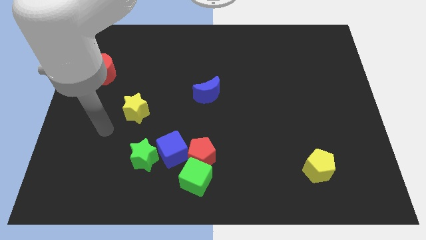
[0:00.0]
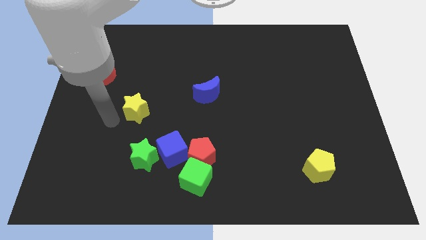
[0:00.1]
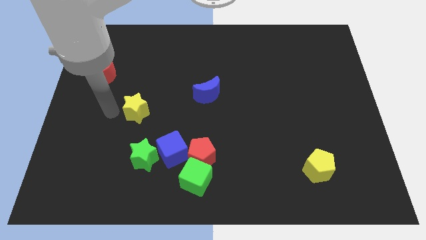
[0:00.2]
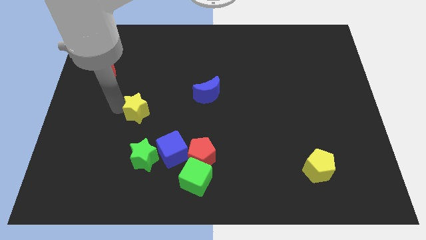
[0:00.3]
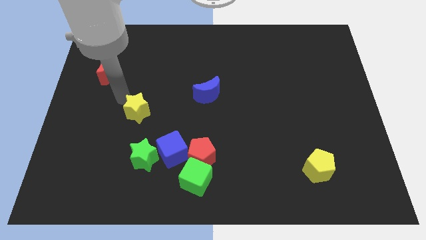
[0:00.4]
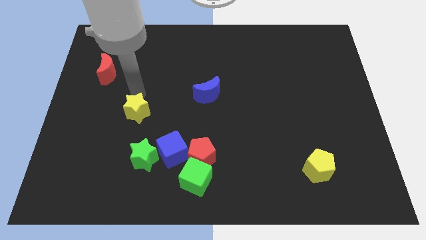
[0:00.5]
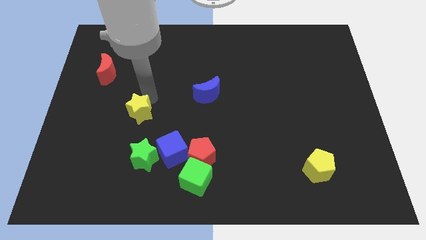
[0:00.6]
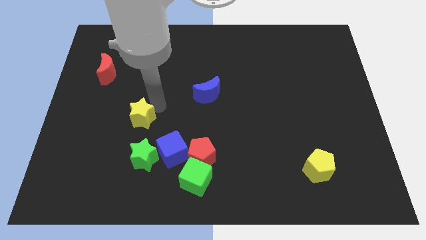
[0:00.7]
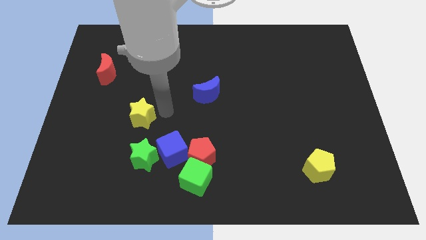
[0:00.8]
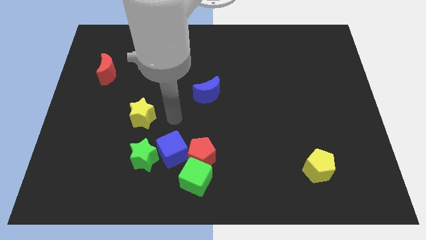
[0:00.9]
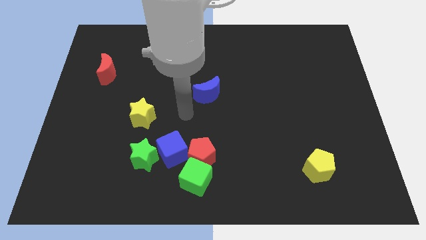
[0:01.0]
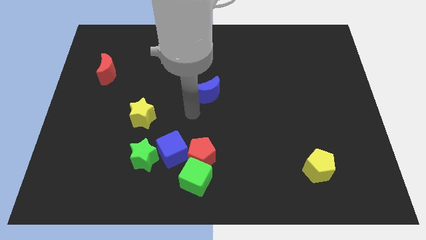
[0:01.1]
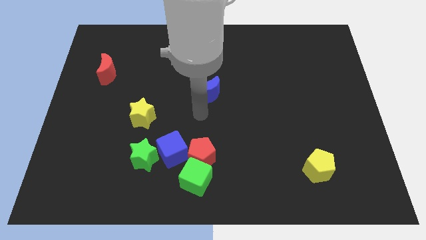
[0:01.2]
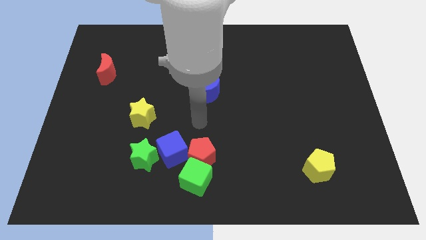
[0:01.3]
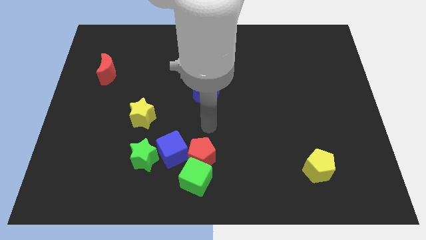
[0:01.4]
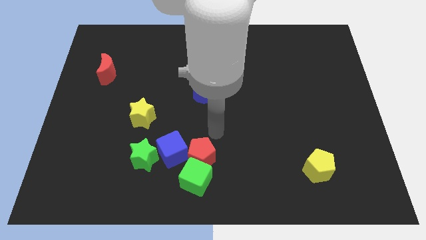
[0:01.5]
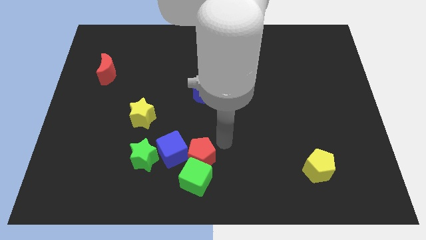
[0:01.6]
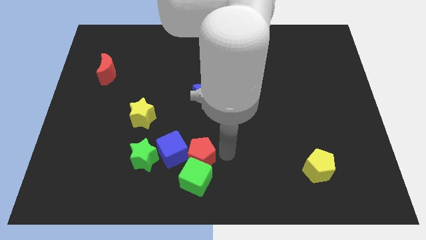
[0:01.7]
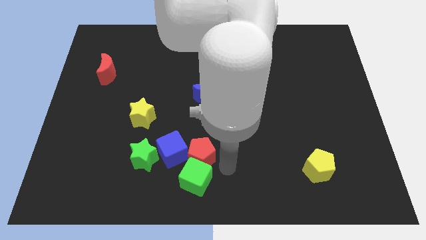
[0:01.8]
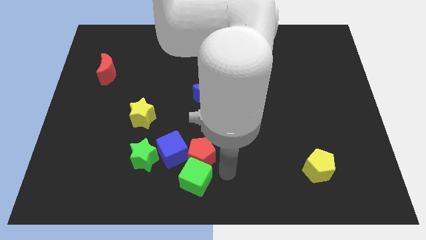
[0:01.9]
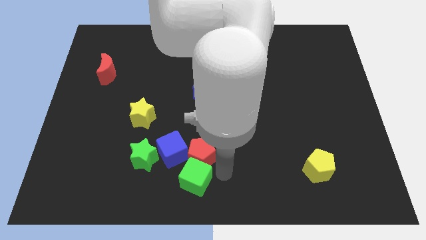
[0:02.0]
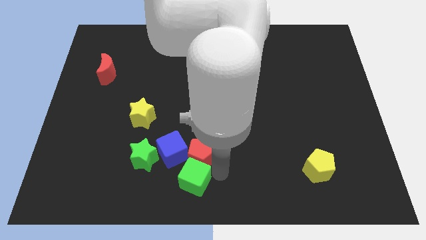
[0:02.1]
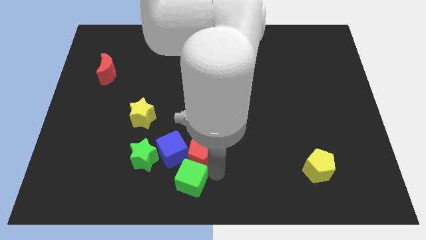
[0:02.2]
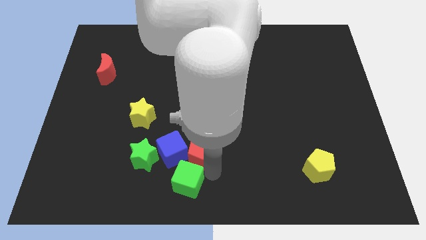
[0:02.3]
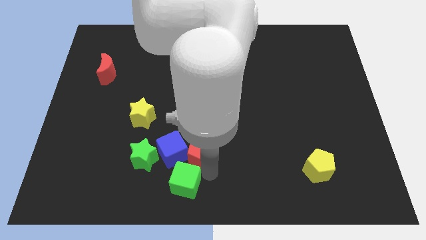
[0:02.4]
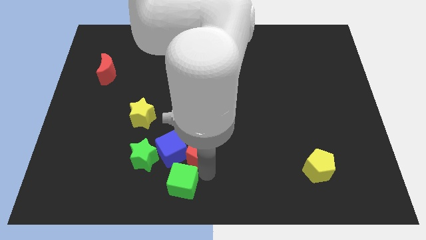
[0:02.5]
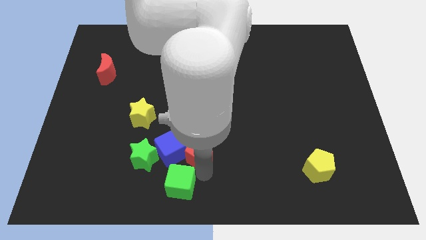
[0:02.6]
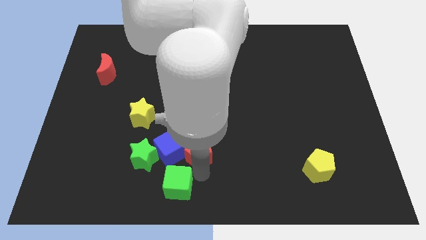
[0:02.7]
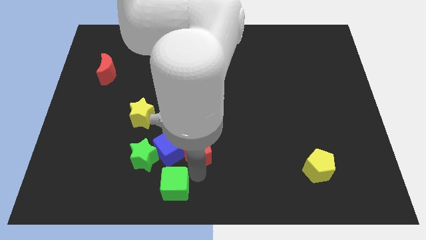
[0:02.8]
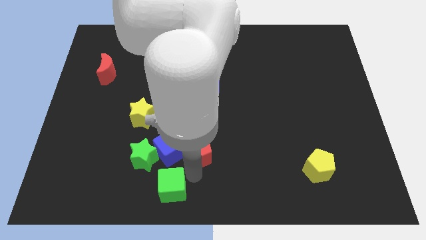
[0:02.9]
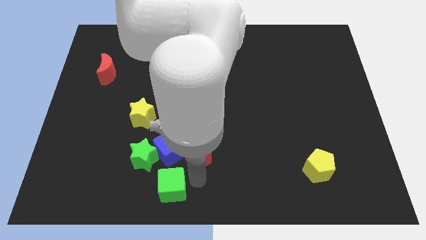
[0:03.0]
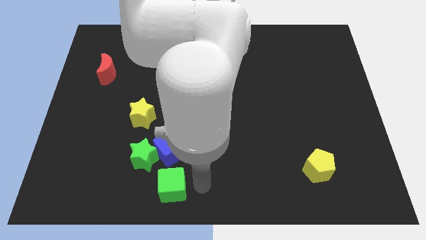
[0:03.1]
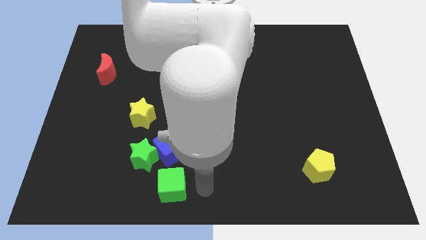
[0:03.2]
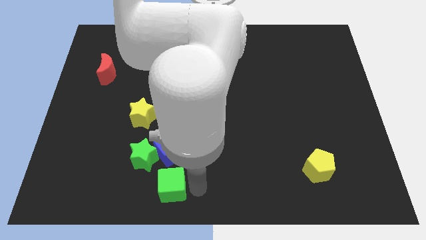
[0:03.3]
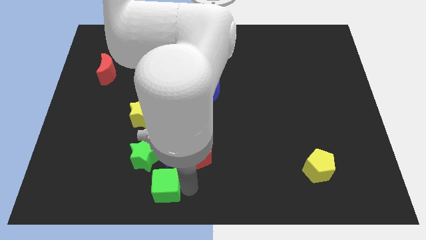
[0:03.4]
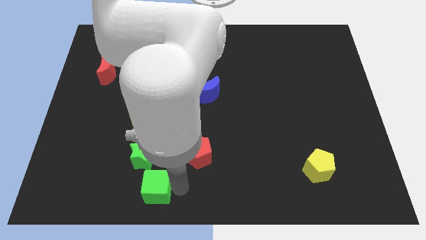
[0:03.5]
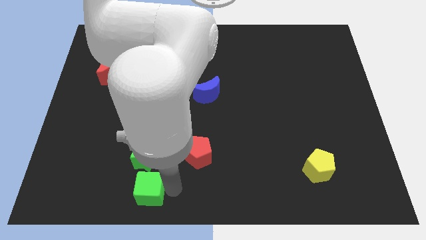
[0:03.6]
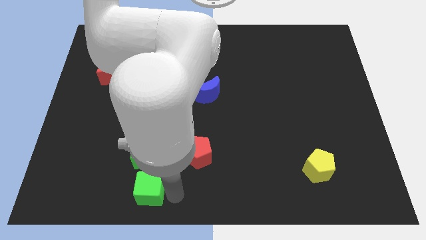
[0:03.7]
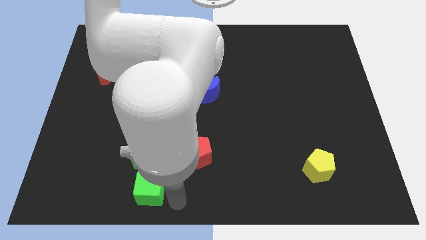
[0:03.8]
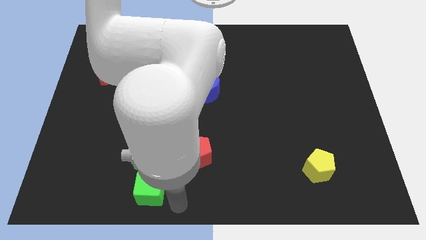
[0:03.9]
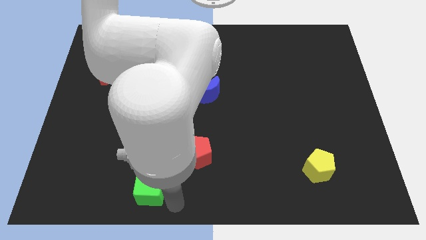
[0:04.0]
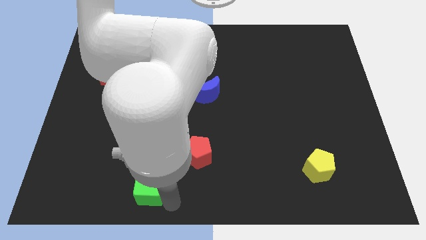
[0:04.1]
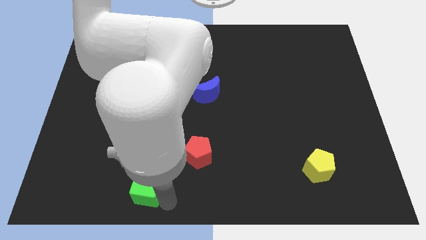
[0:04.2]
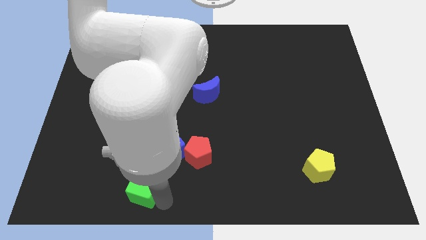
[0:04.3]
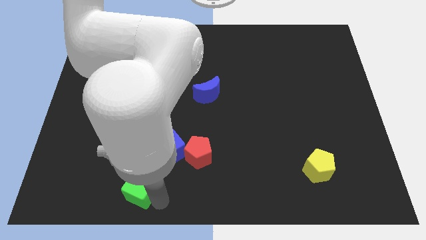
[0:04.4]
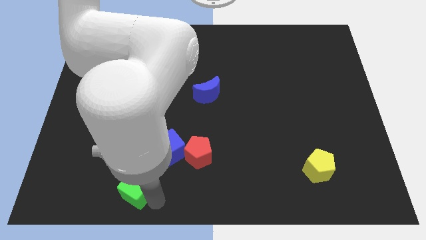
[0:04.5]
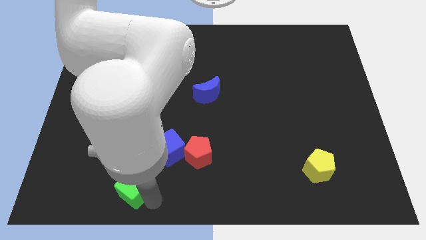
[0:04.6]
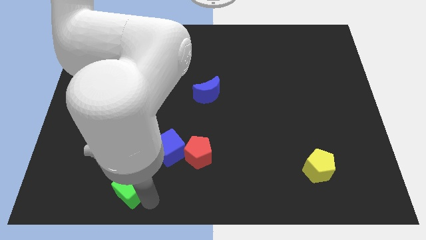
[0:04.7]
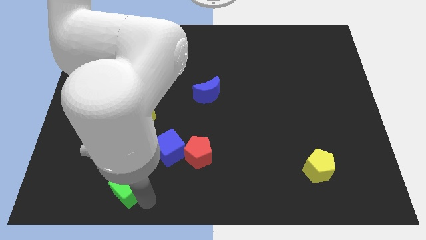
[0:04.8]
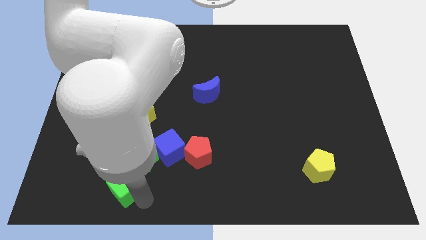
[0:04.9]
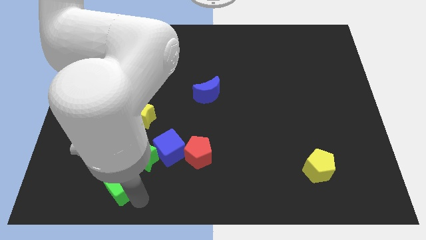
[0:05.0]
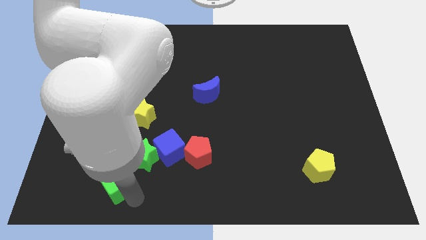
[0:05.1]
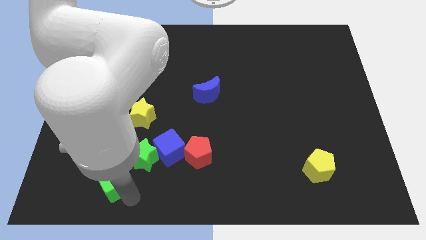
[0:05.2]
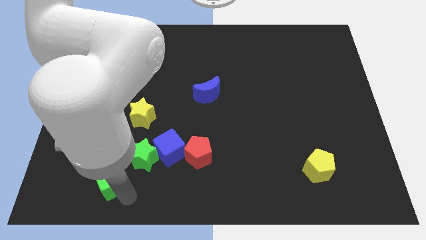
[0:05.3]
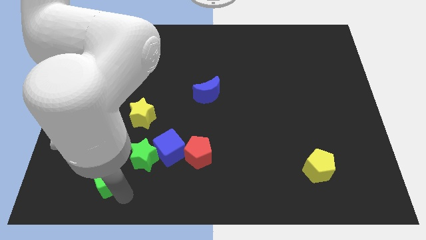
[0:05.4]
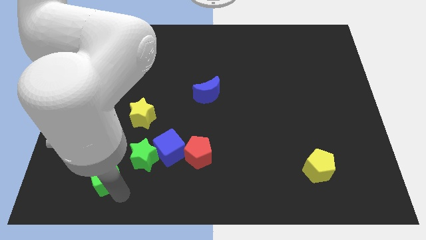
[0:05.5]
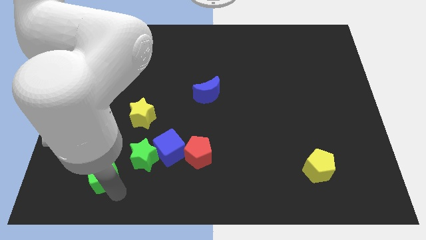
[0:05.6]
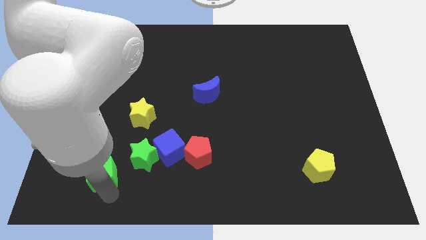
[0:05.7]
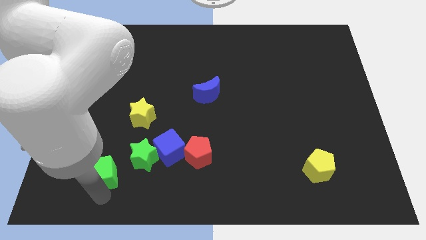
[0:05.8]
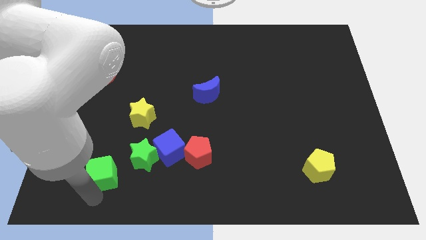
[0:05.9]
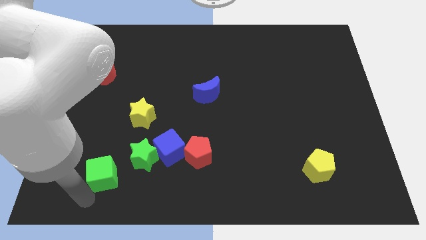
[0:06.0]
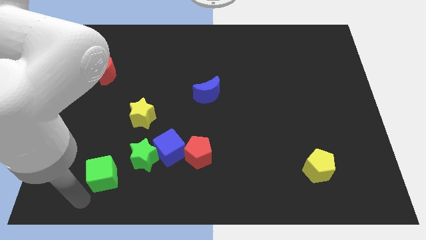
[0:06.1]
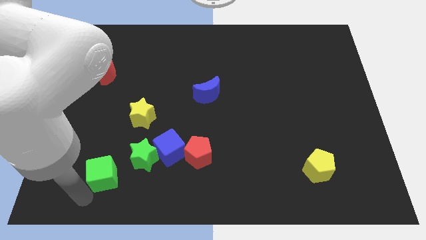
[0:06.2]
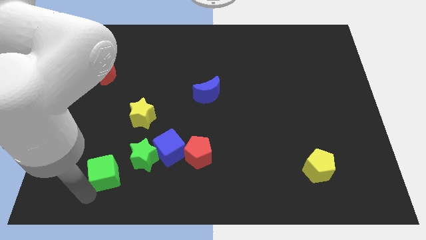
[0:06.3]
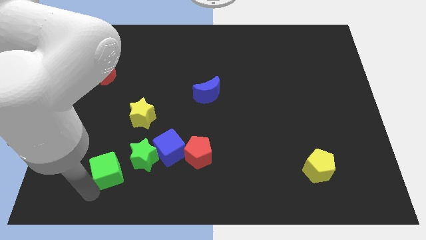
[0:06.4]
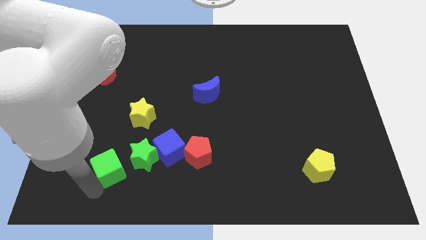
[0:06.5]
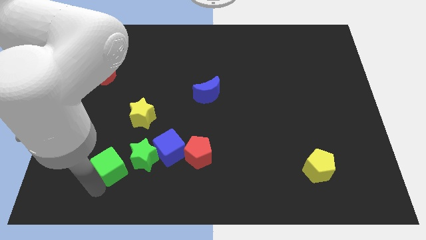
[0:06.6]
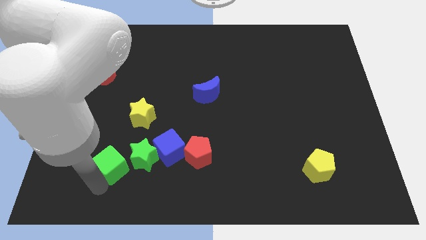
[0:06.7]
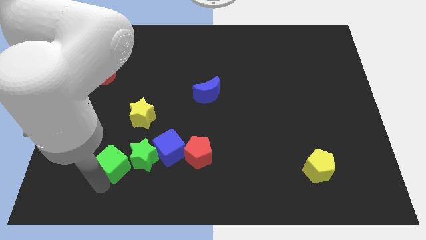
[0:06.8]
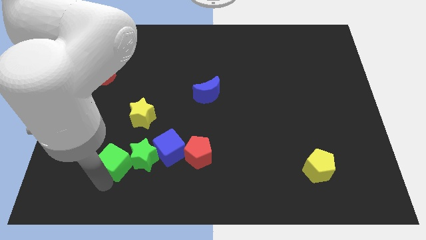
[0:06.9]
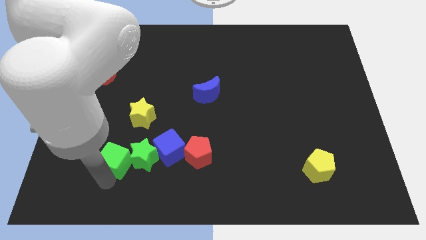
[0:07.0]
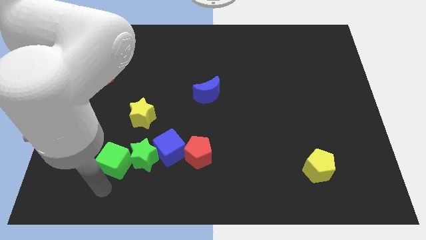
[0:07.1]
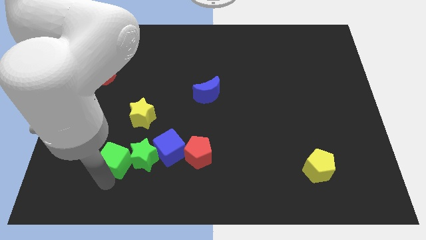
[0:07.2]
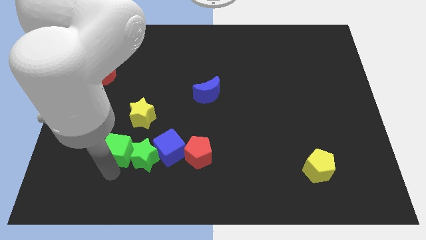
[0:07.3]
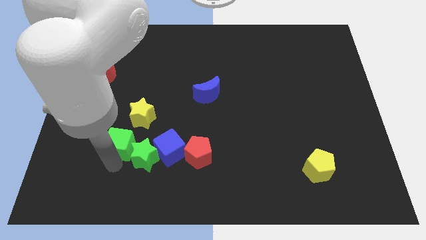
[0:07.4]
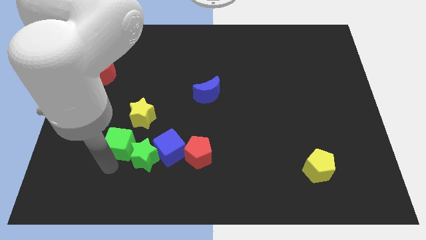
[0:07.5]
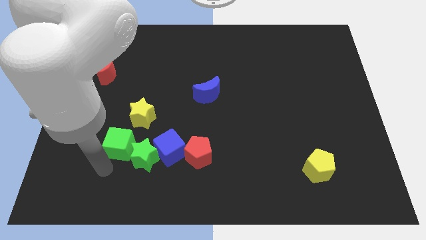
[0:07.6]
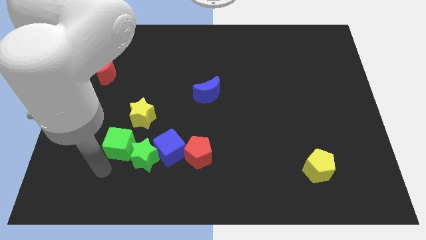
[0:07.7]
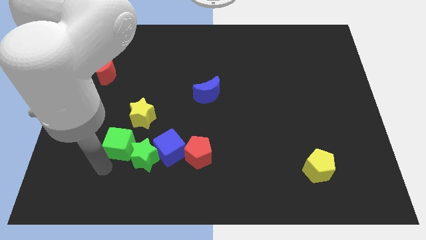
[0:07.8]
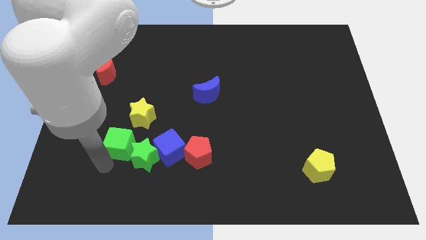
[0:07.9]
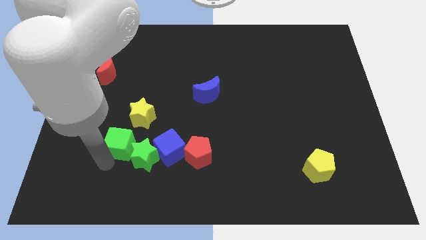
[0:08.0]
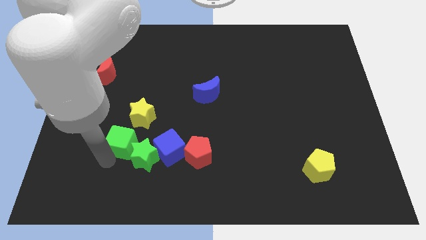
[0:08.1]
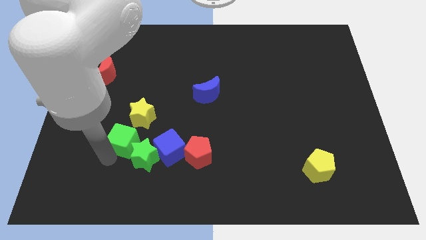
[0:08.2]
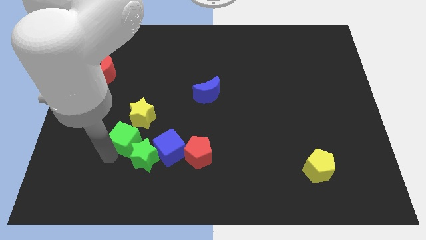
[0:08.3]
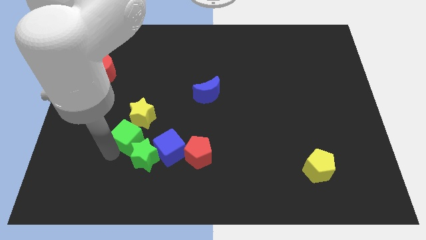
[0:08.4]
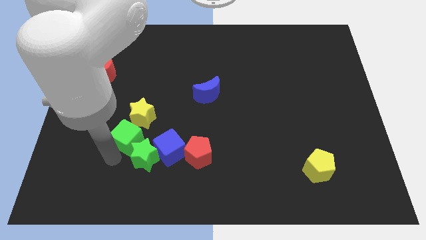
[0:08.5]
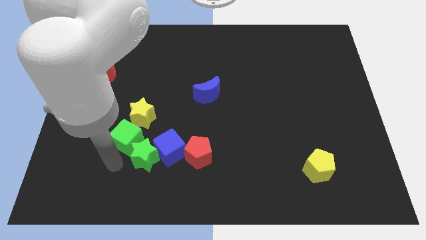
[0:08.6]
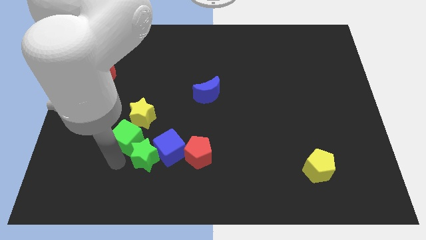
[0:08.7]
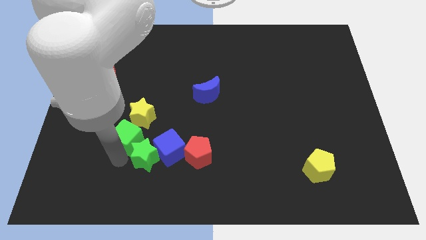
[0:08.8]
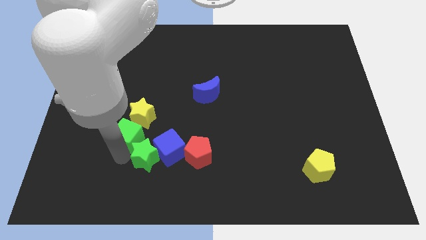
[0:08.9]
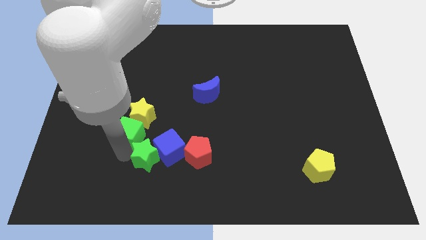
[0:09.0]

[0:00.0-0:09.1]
move the green cube to the yellow star
